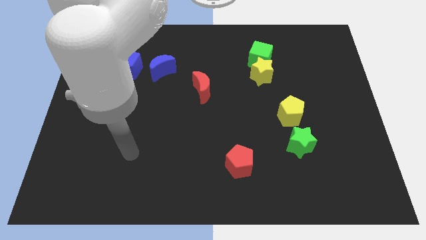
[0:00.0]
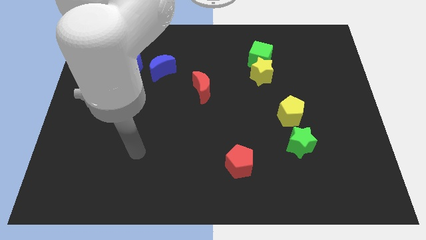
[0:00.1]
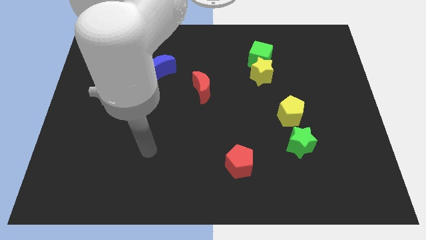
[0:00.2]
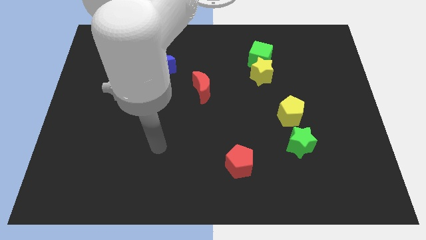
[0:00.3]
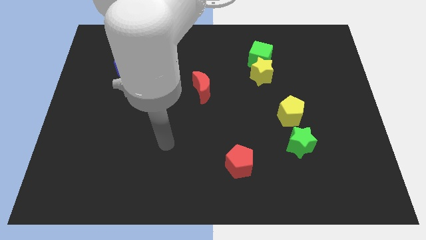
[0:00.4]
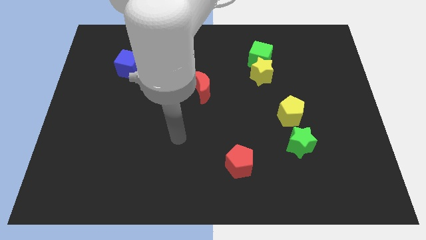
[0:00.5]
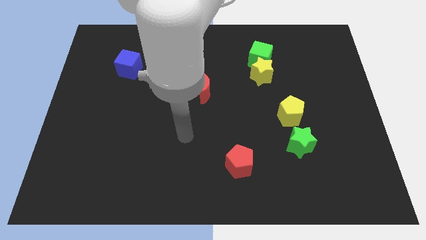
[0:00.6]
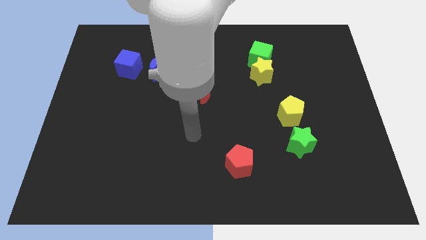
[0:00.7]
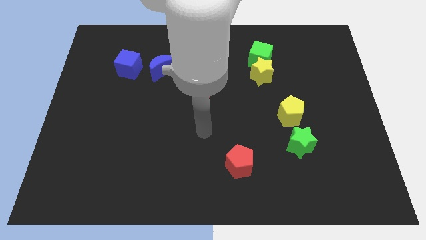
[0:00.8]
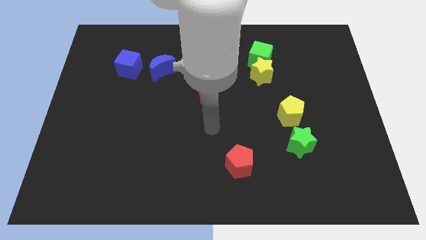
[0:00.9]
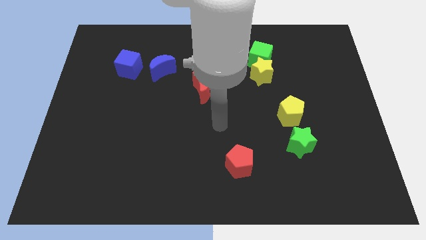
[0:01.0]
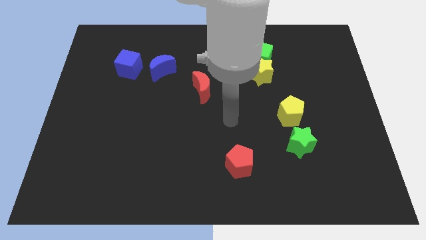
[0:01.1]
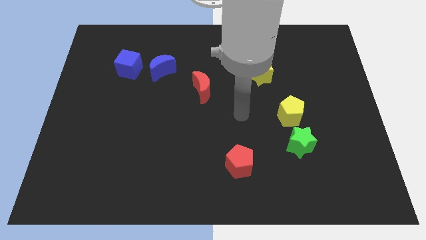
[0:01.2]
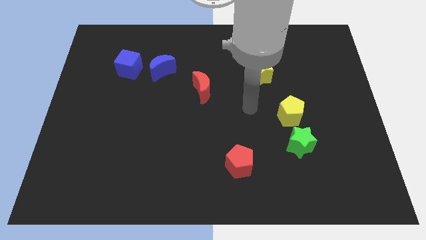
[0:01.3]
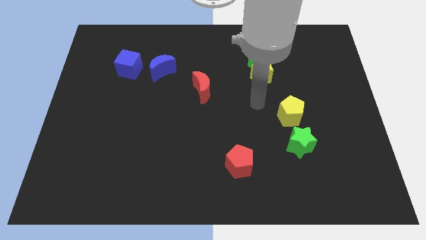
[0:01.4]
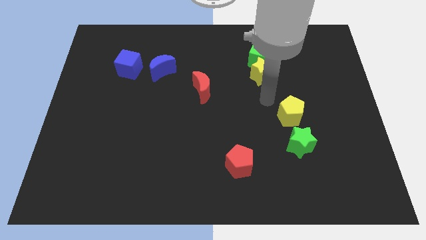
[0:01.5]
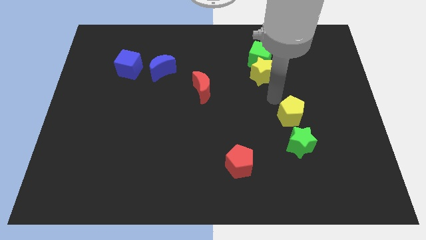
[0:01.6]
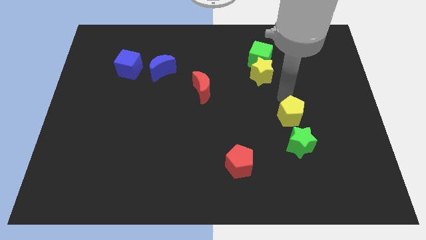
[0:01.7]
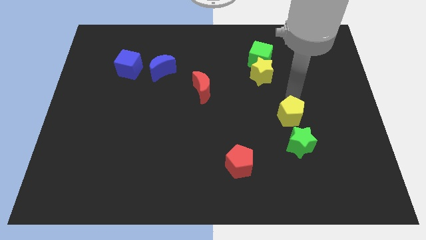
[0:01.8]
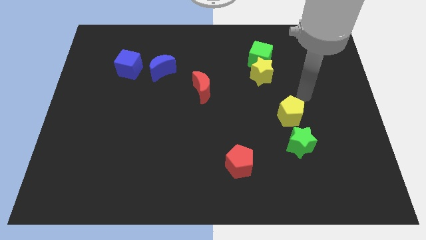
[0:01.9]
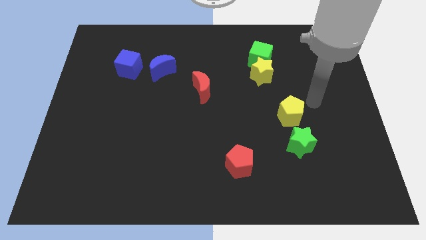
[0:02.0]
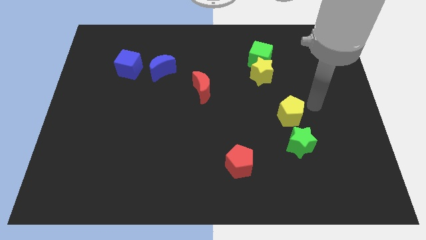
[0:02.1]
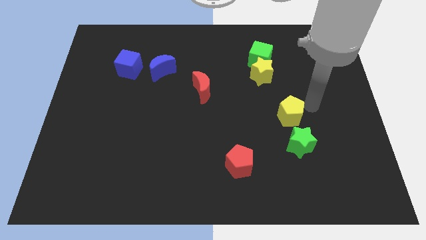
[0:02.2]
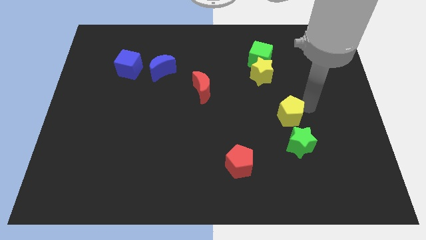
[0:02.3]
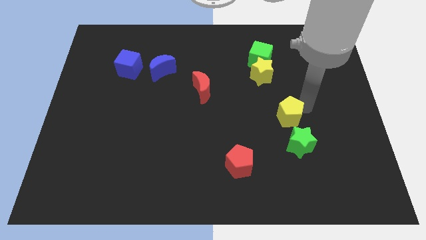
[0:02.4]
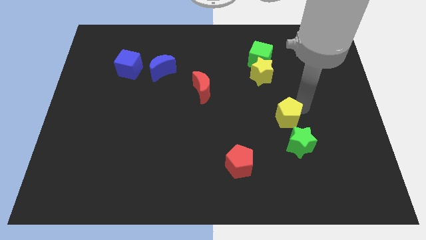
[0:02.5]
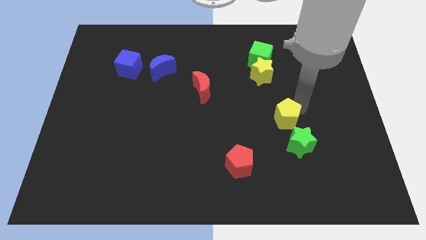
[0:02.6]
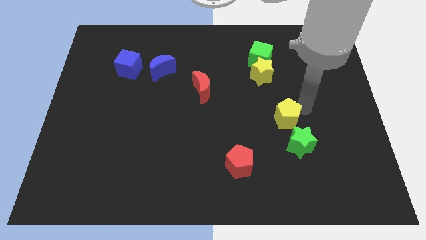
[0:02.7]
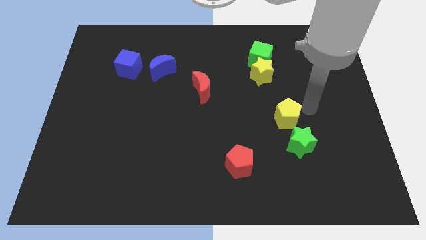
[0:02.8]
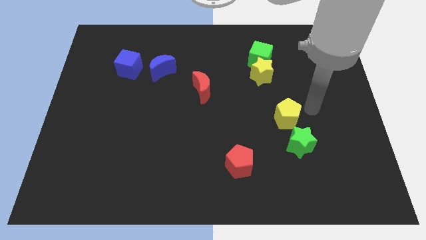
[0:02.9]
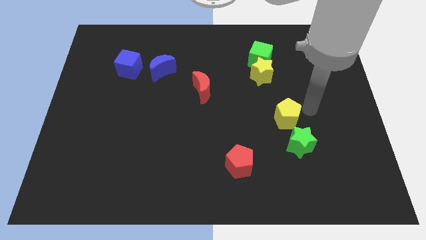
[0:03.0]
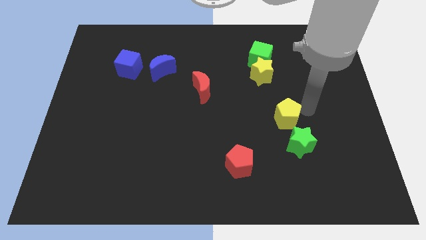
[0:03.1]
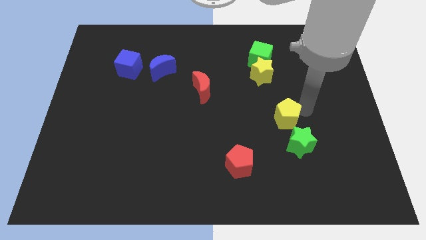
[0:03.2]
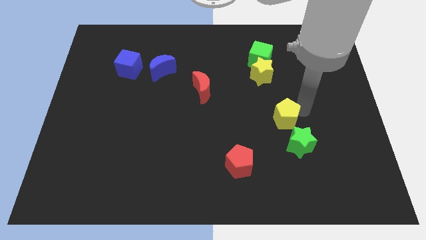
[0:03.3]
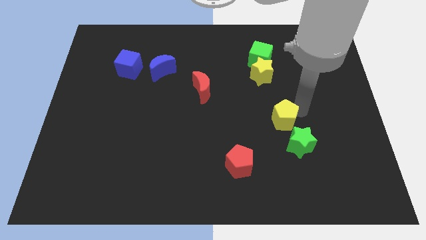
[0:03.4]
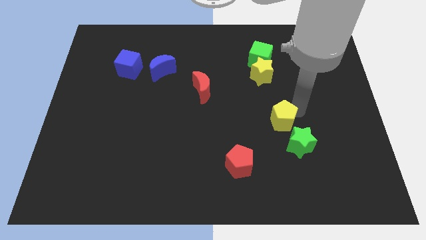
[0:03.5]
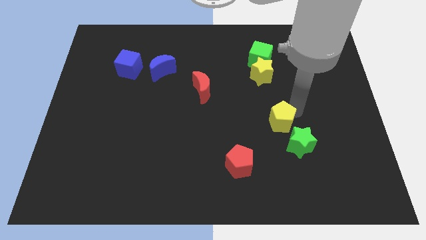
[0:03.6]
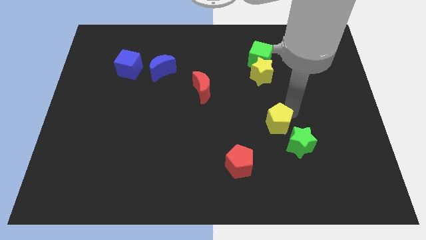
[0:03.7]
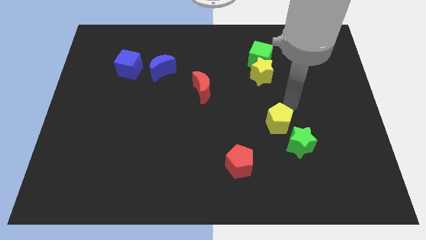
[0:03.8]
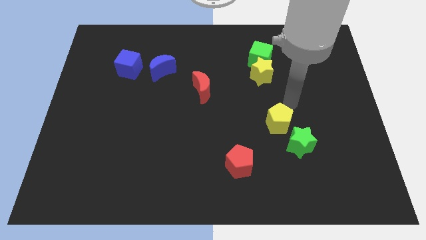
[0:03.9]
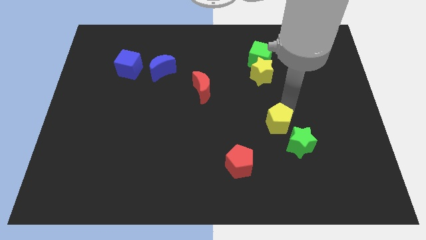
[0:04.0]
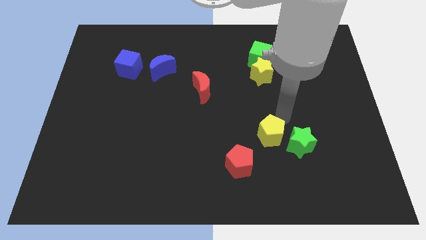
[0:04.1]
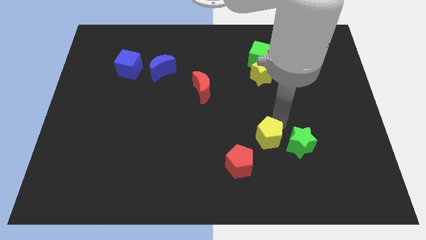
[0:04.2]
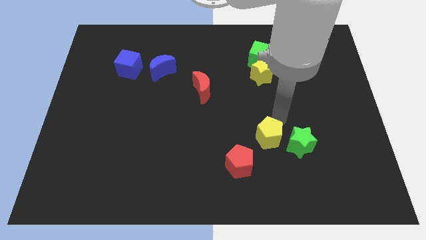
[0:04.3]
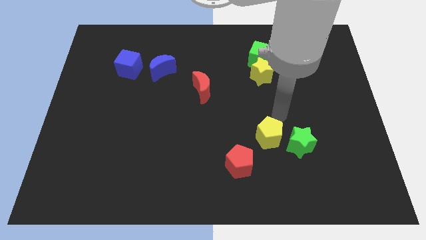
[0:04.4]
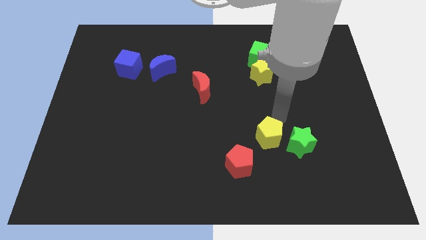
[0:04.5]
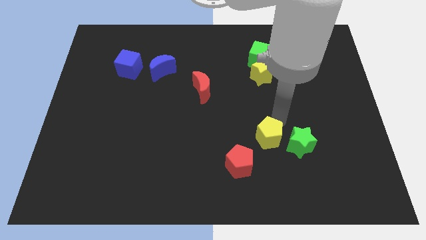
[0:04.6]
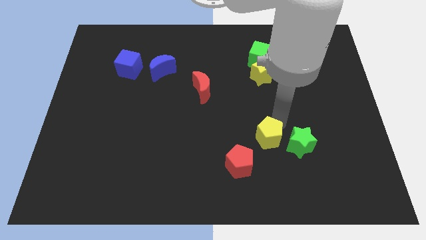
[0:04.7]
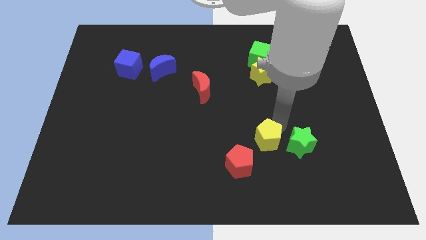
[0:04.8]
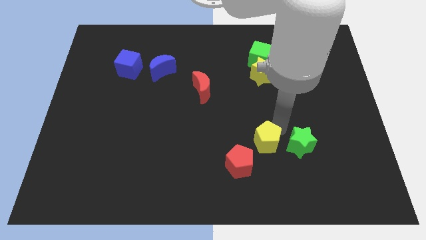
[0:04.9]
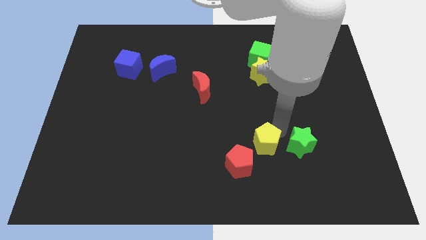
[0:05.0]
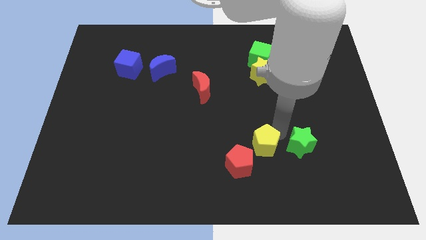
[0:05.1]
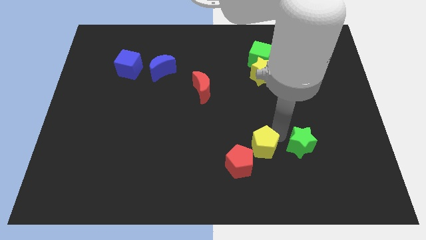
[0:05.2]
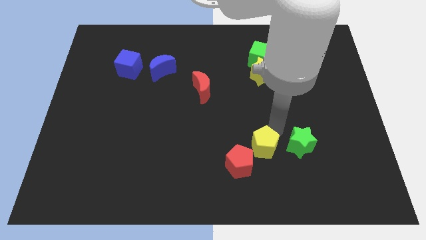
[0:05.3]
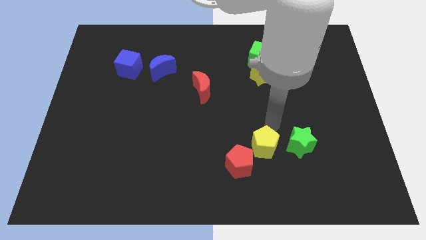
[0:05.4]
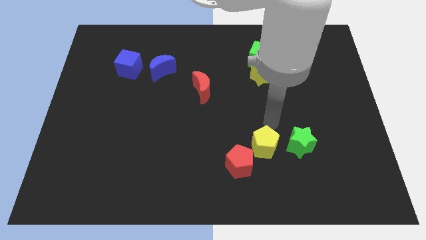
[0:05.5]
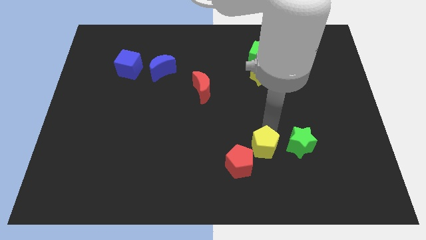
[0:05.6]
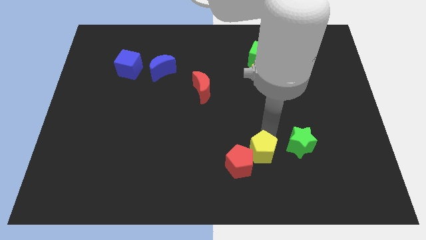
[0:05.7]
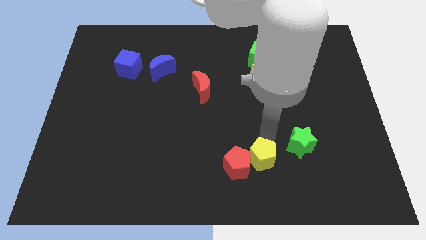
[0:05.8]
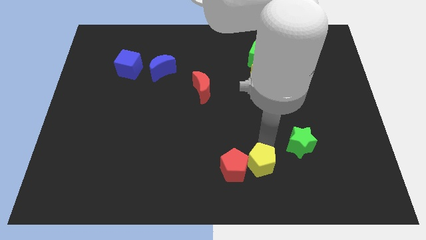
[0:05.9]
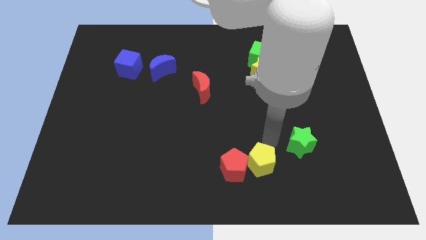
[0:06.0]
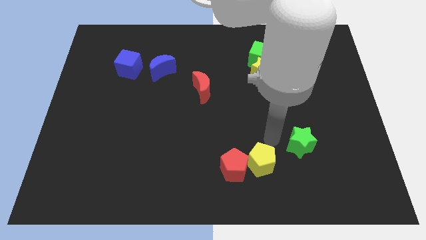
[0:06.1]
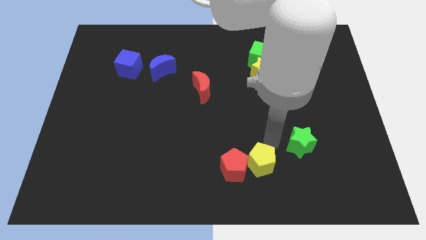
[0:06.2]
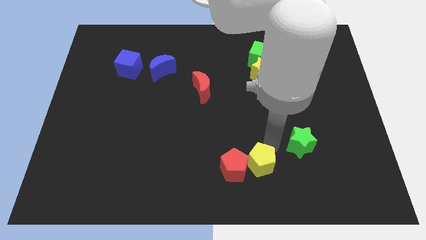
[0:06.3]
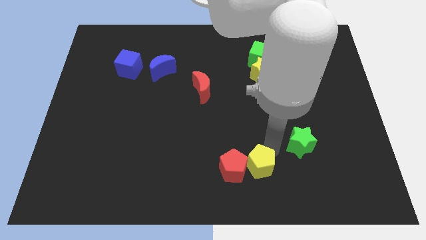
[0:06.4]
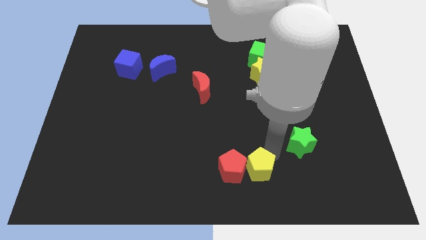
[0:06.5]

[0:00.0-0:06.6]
move the yellow pentagon to the bottom
